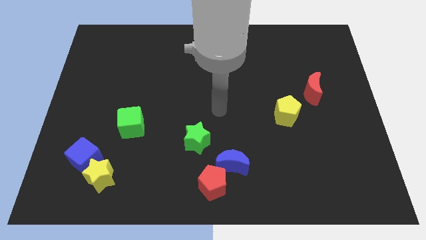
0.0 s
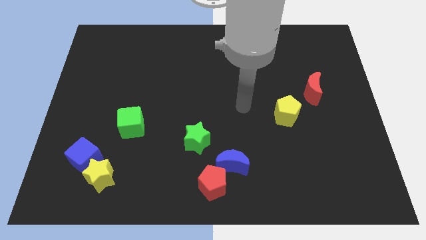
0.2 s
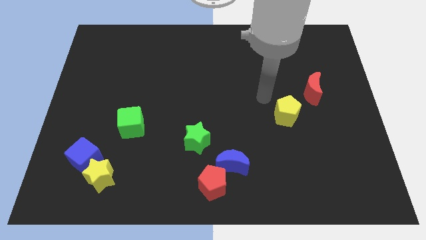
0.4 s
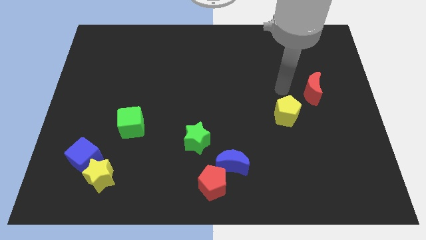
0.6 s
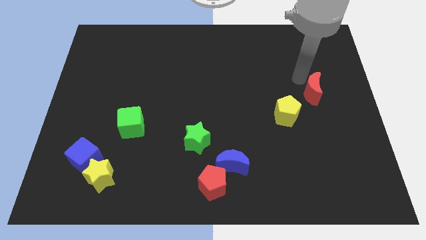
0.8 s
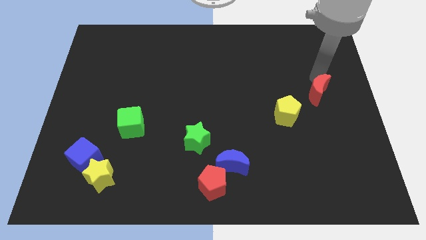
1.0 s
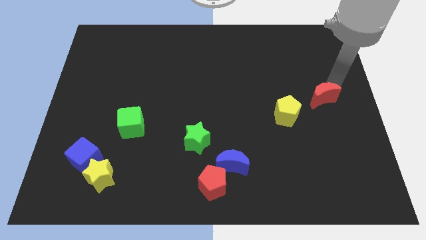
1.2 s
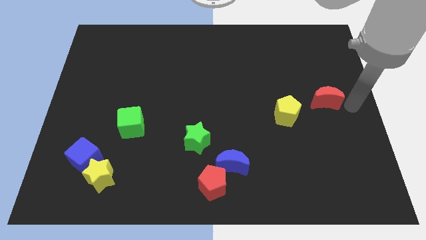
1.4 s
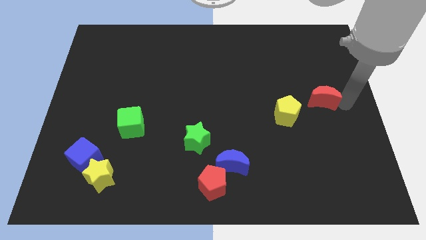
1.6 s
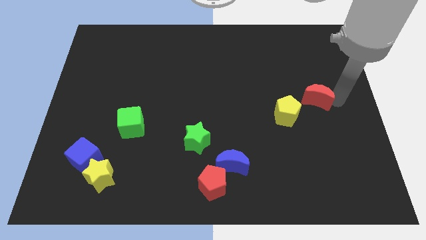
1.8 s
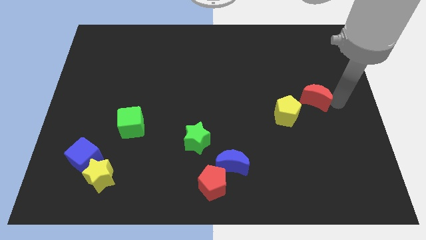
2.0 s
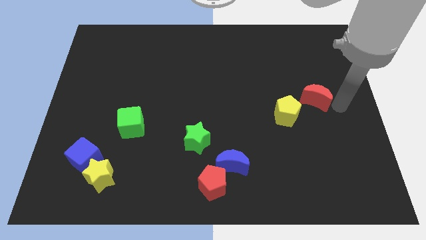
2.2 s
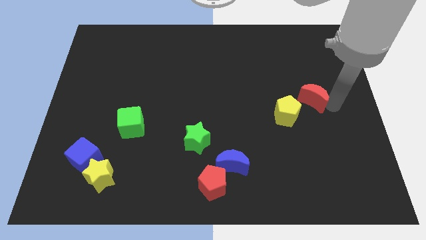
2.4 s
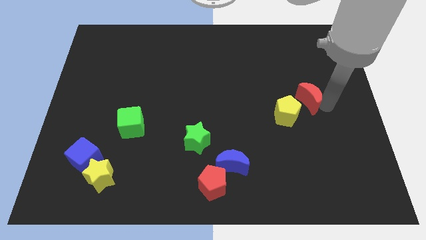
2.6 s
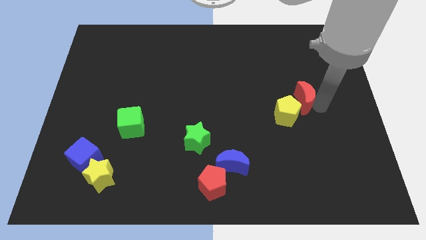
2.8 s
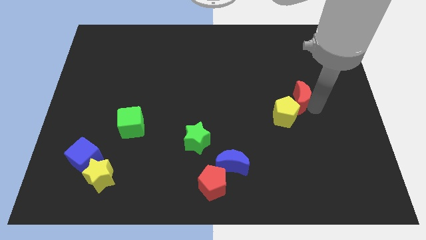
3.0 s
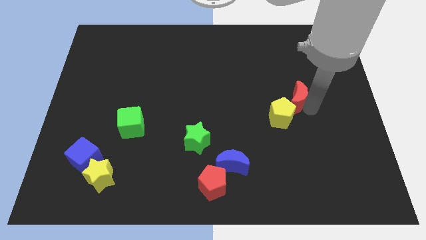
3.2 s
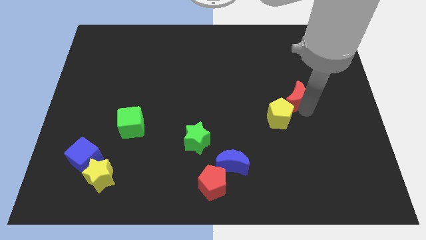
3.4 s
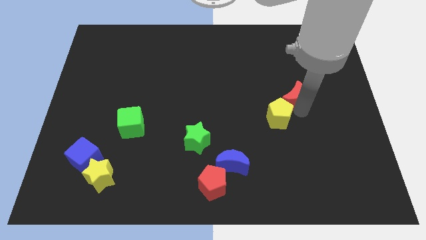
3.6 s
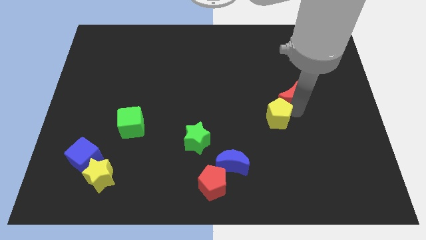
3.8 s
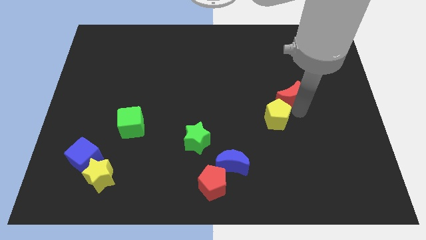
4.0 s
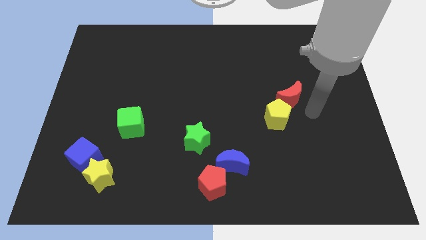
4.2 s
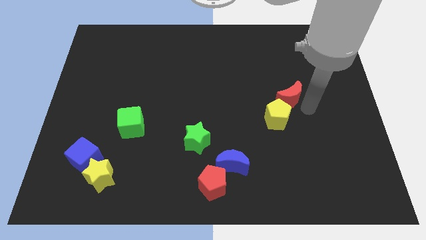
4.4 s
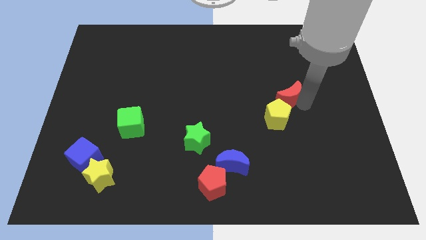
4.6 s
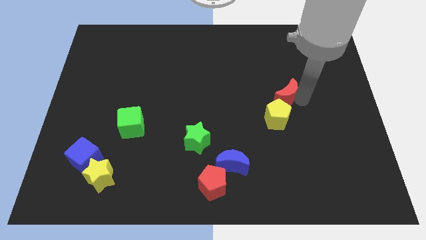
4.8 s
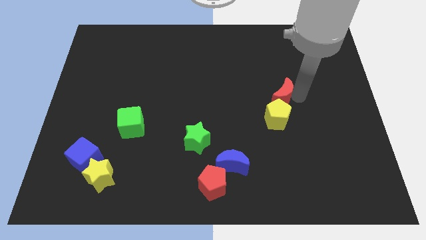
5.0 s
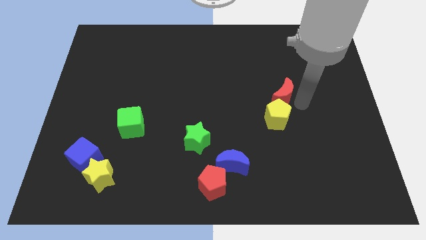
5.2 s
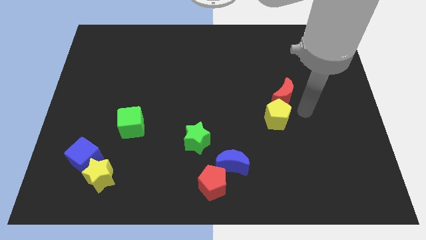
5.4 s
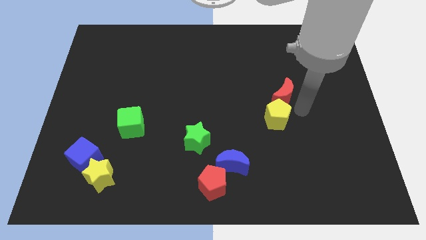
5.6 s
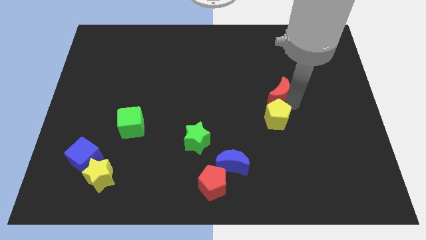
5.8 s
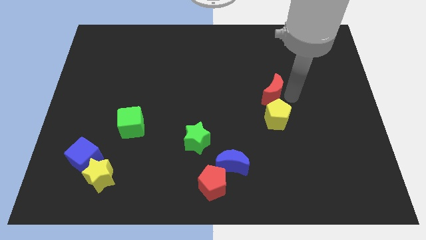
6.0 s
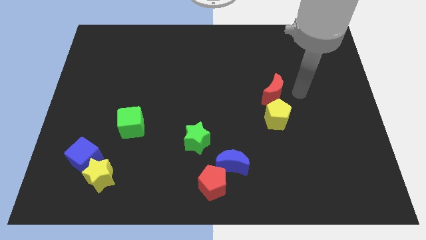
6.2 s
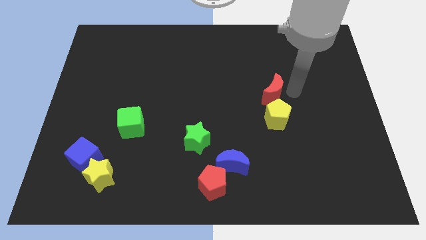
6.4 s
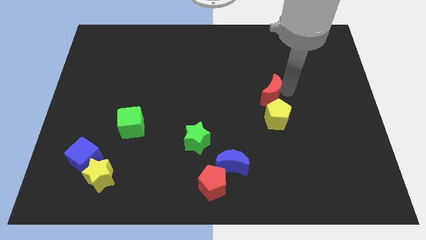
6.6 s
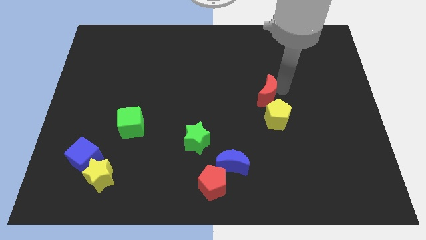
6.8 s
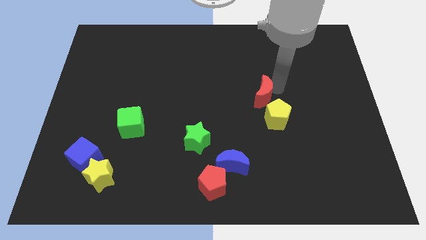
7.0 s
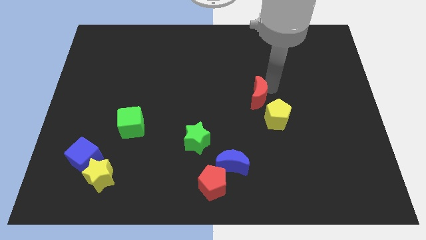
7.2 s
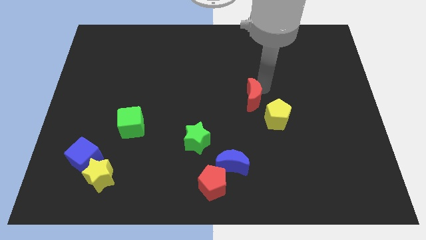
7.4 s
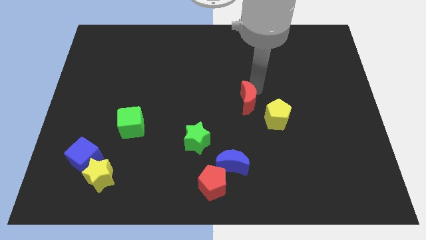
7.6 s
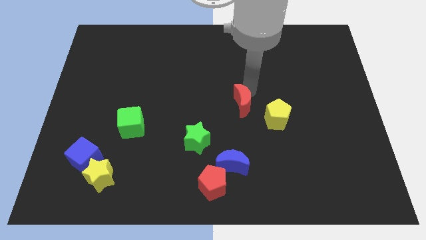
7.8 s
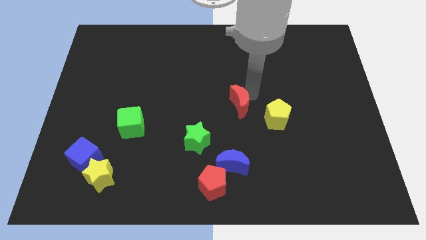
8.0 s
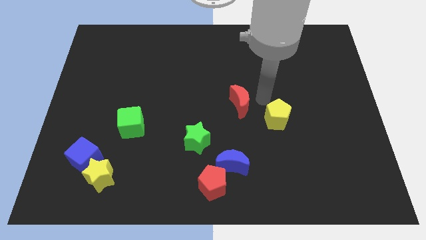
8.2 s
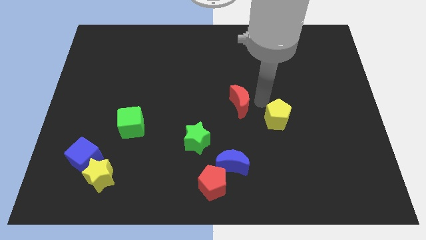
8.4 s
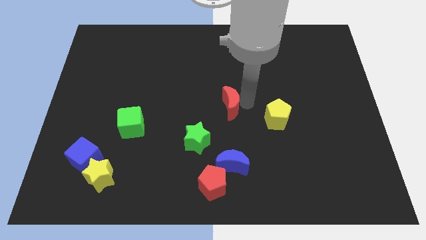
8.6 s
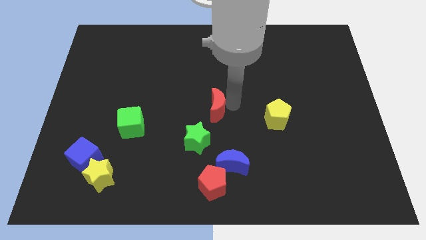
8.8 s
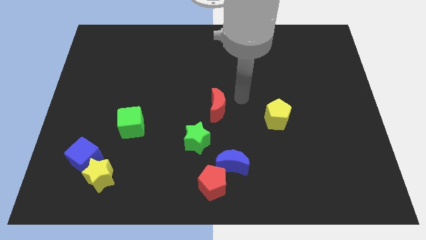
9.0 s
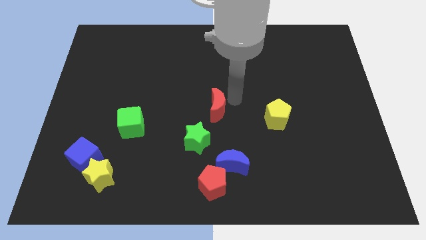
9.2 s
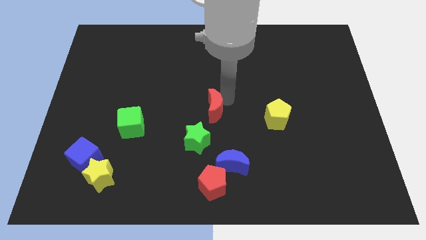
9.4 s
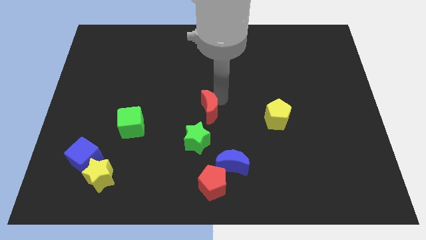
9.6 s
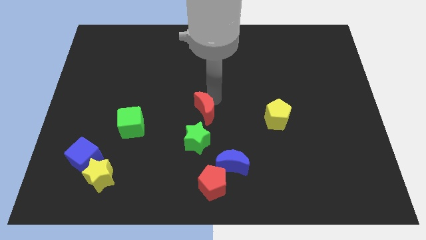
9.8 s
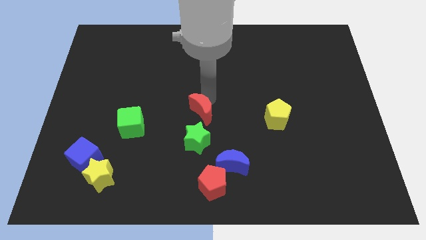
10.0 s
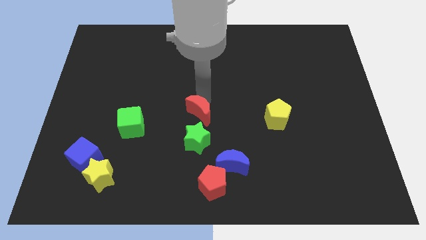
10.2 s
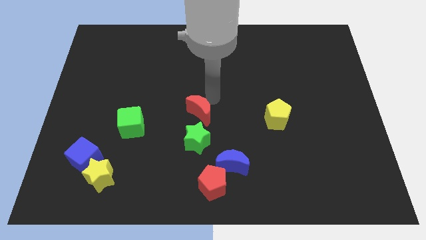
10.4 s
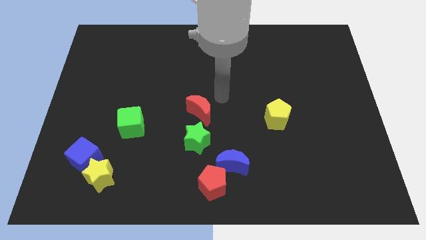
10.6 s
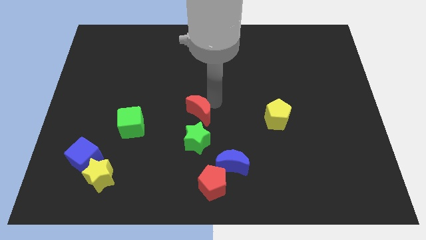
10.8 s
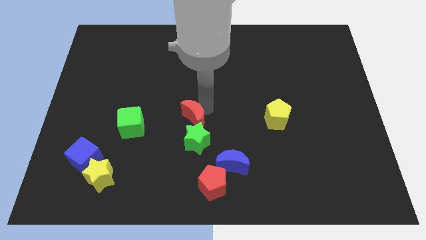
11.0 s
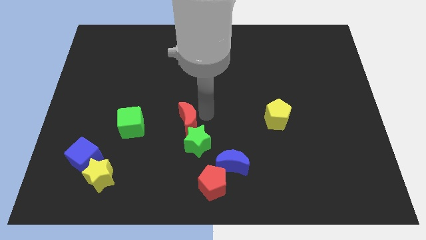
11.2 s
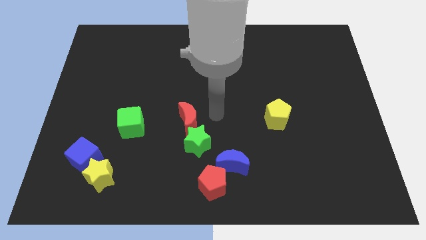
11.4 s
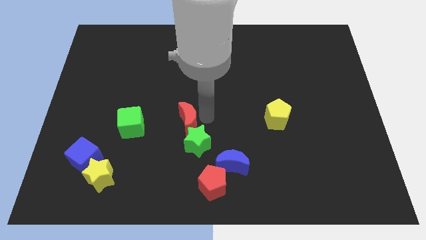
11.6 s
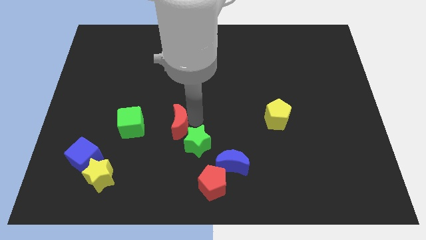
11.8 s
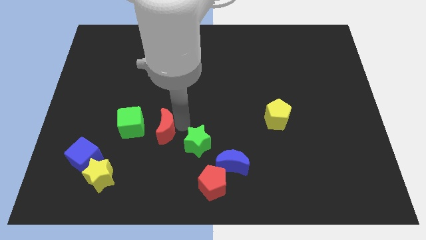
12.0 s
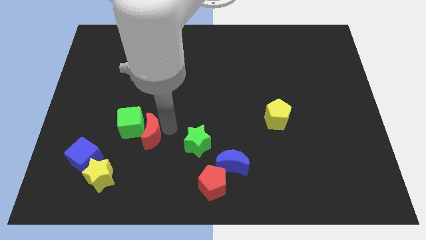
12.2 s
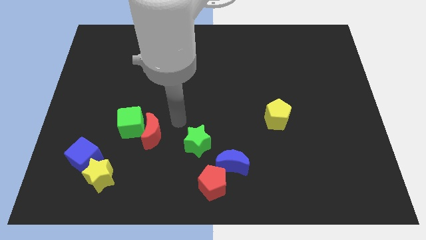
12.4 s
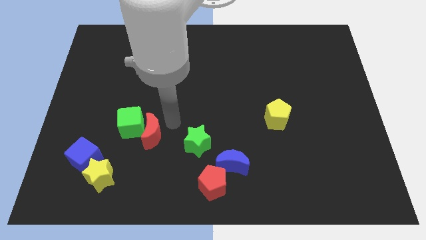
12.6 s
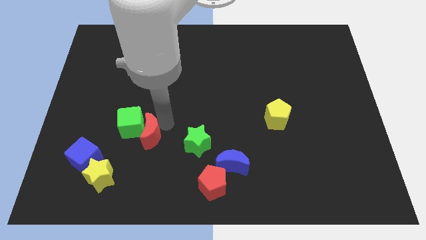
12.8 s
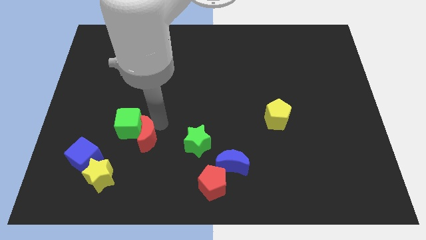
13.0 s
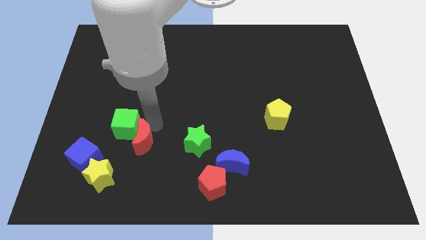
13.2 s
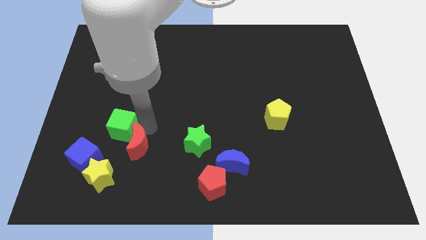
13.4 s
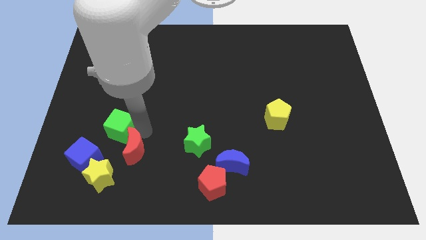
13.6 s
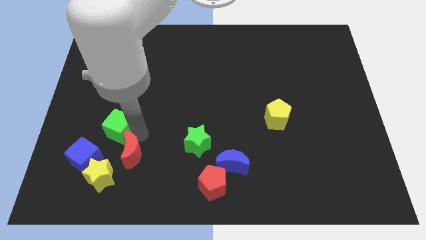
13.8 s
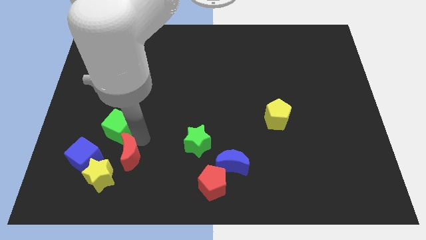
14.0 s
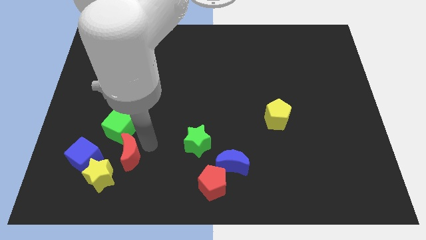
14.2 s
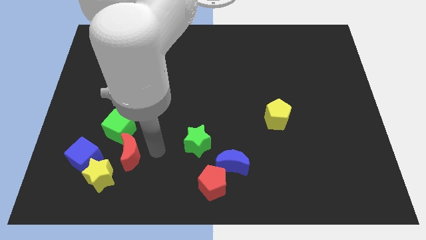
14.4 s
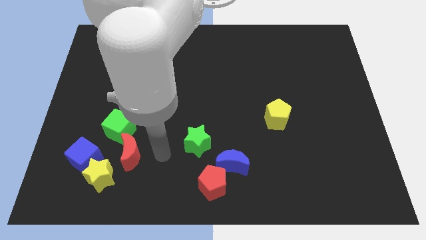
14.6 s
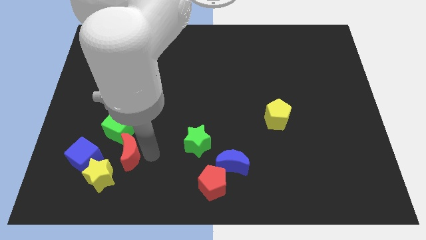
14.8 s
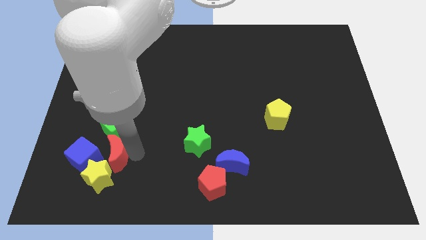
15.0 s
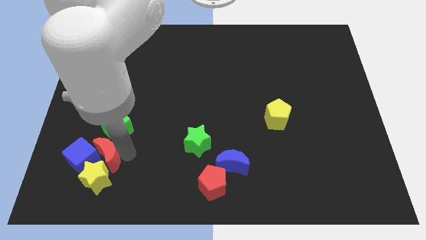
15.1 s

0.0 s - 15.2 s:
put the red moon next to the blue cube

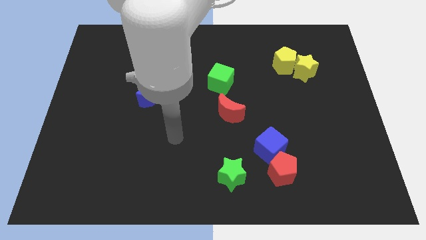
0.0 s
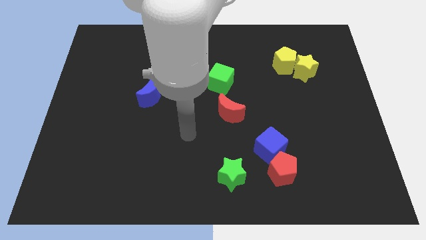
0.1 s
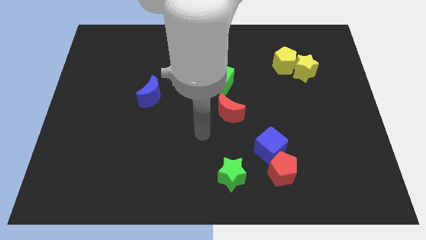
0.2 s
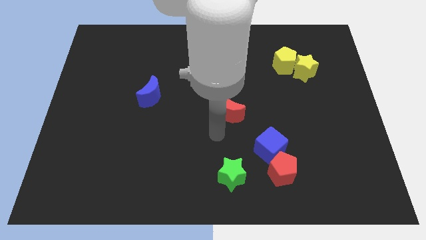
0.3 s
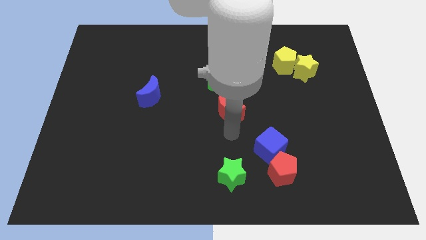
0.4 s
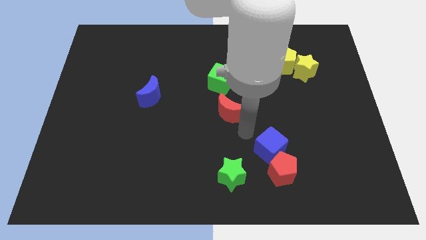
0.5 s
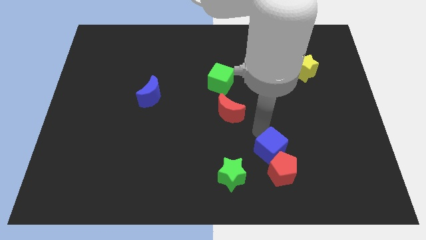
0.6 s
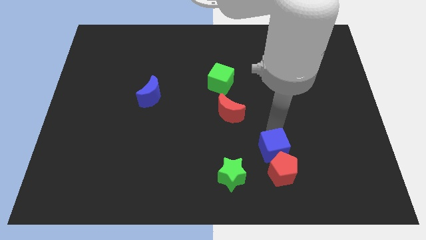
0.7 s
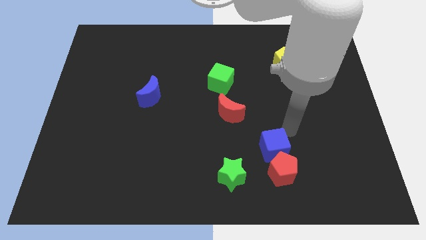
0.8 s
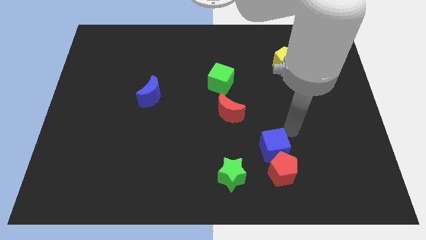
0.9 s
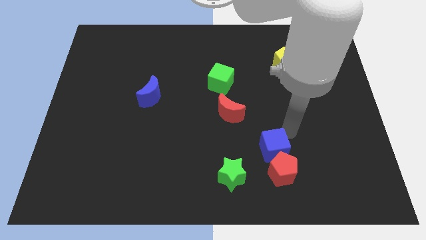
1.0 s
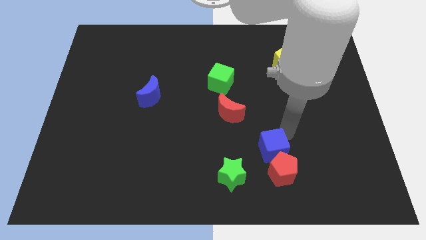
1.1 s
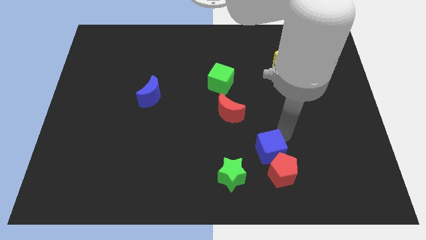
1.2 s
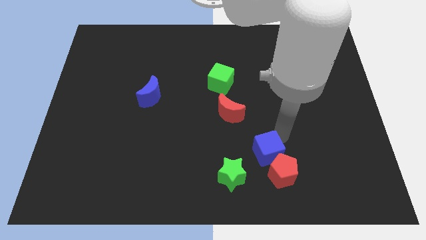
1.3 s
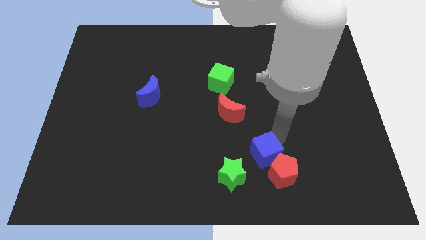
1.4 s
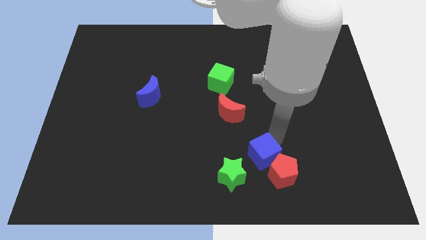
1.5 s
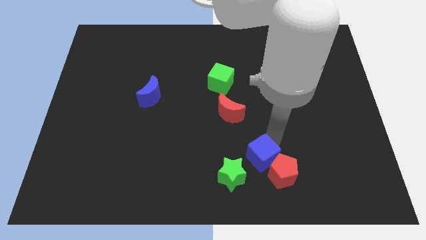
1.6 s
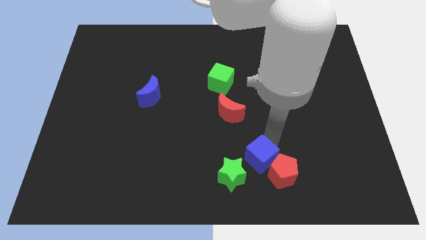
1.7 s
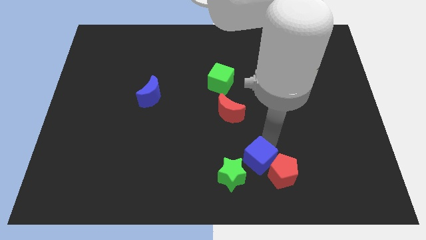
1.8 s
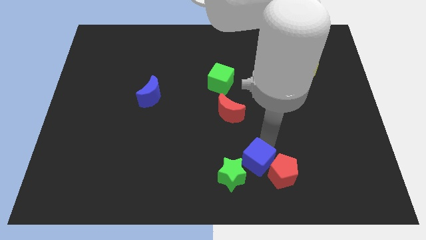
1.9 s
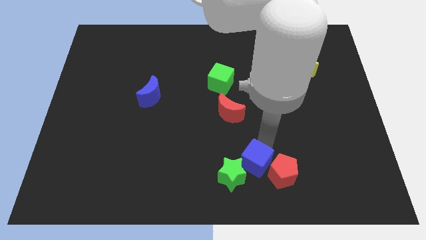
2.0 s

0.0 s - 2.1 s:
slide the blue cube towards the green star
